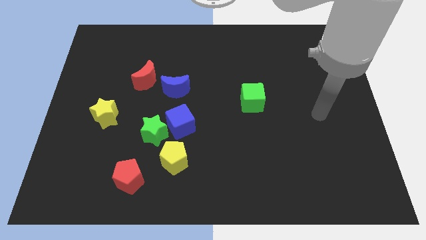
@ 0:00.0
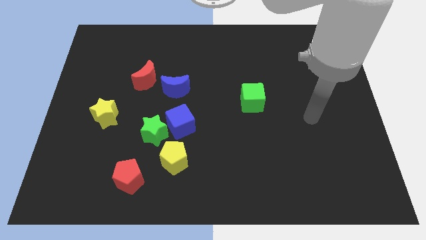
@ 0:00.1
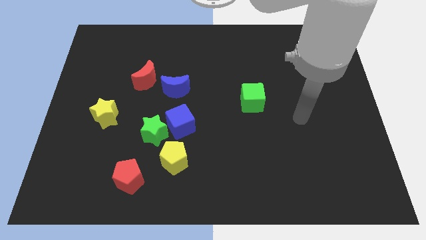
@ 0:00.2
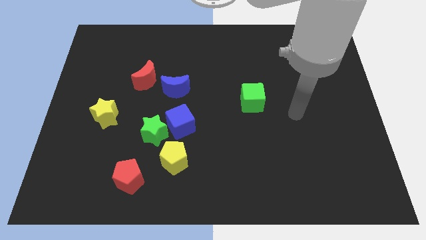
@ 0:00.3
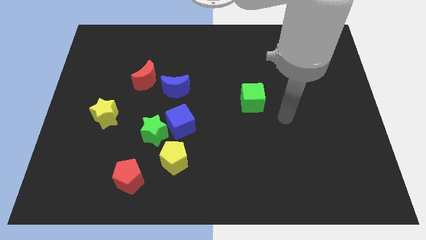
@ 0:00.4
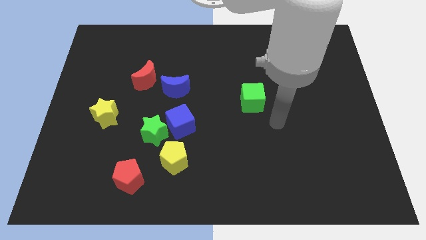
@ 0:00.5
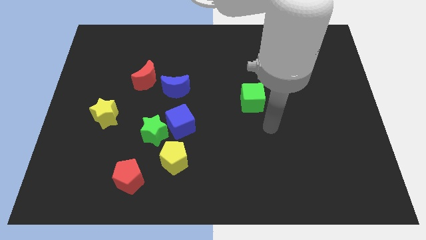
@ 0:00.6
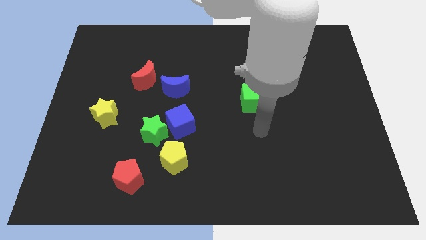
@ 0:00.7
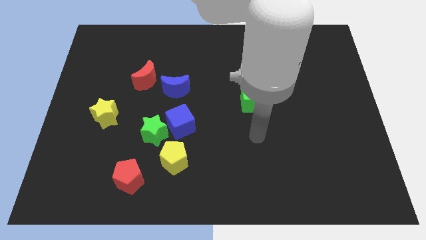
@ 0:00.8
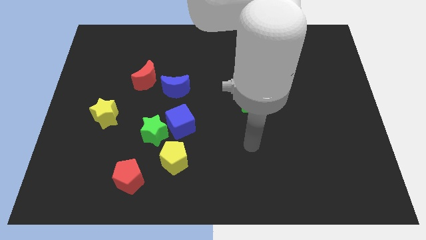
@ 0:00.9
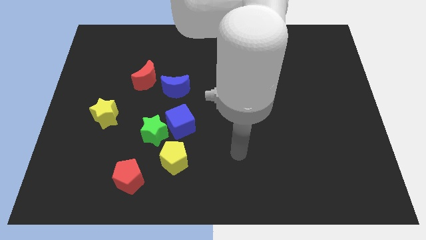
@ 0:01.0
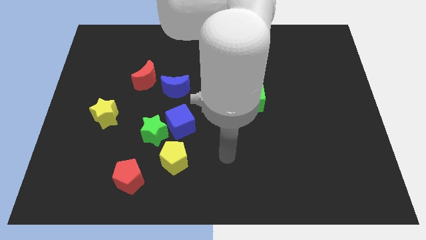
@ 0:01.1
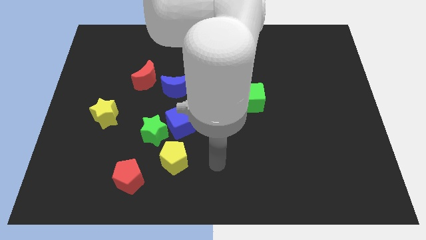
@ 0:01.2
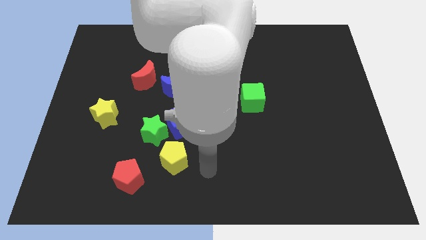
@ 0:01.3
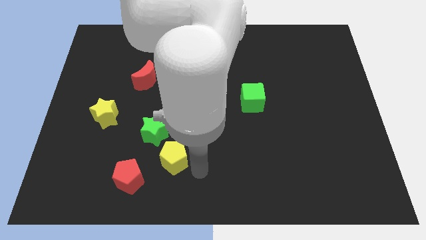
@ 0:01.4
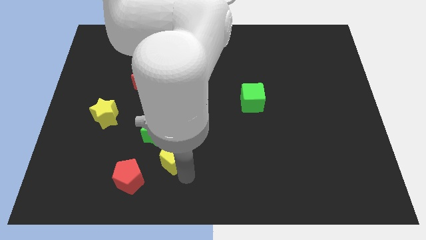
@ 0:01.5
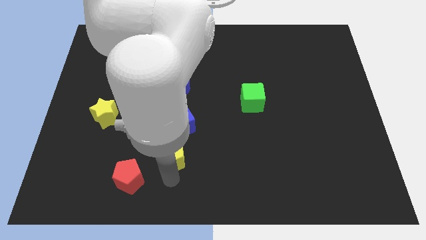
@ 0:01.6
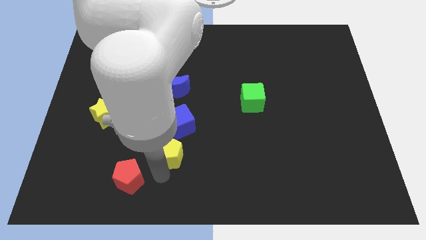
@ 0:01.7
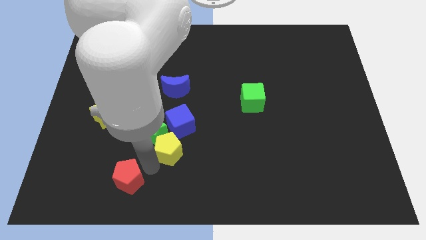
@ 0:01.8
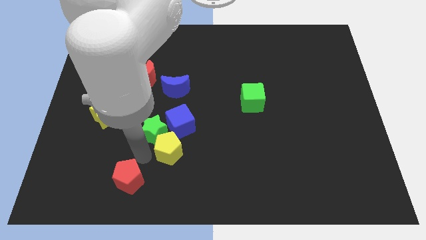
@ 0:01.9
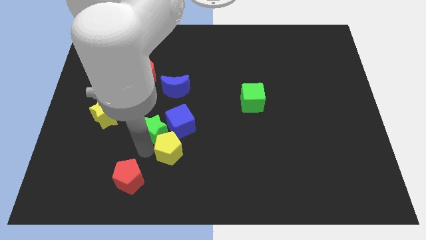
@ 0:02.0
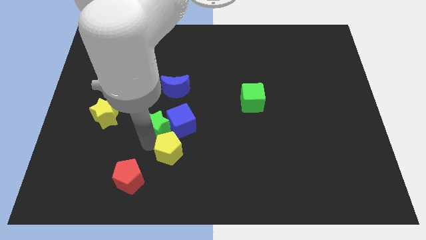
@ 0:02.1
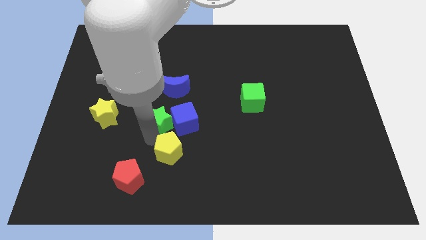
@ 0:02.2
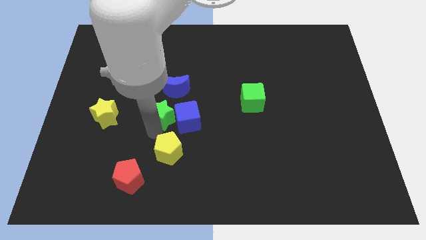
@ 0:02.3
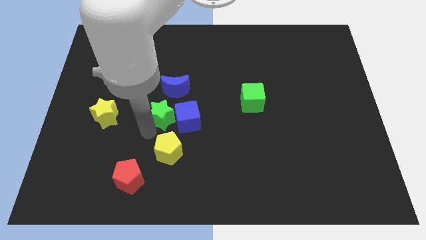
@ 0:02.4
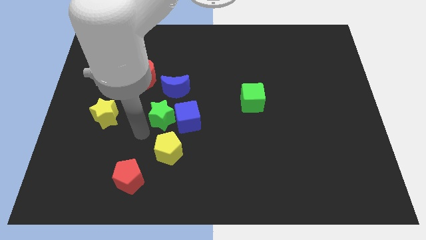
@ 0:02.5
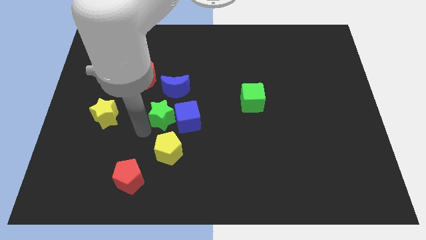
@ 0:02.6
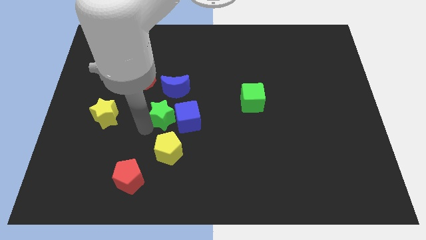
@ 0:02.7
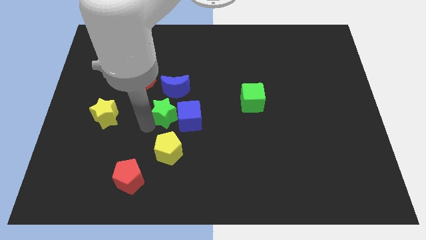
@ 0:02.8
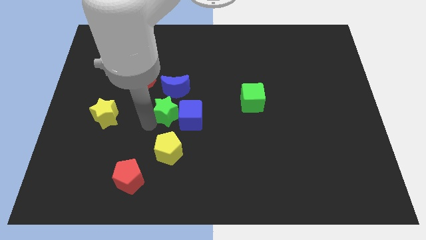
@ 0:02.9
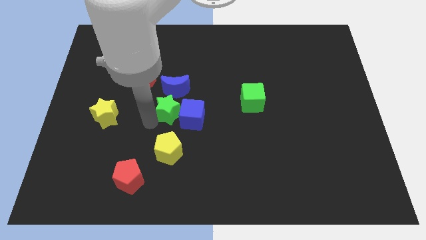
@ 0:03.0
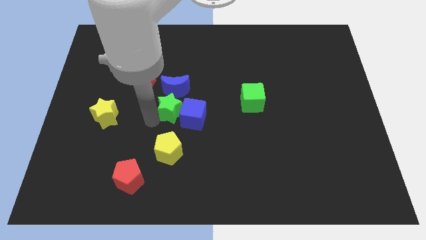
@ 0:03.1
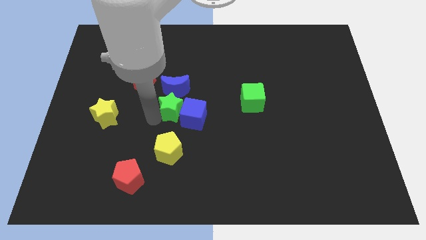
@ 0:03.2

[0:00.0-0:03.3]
push the green star diagonally upwards and right somewhat

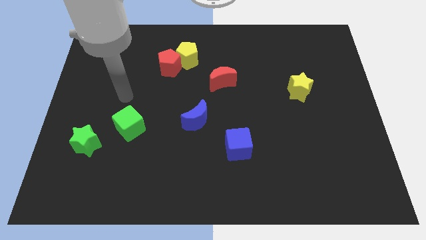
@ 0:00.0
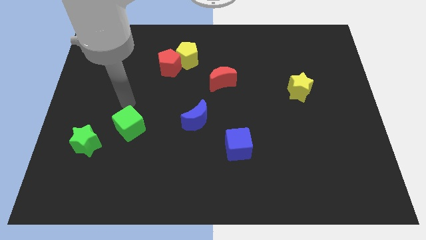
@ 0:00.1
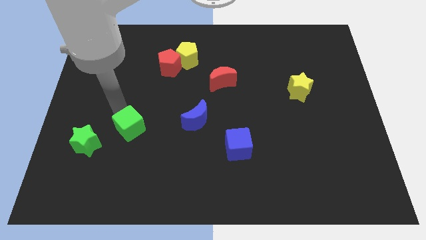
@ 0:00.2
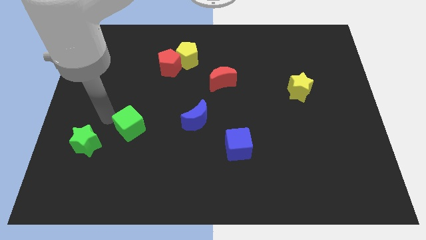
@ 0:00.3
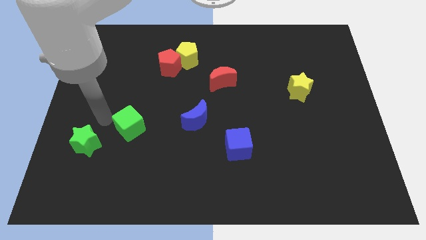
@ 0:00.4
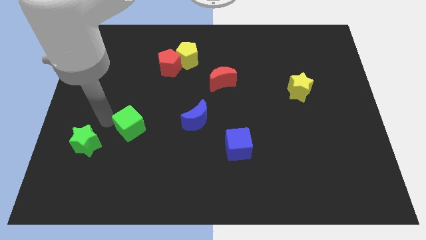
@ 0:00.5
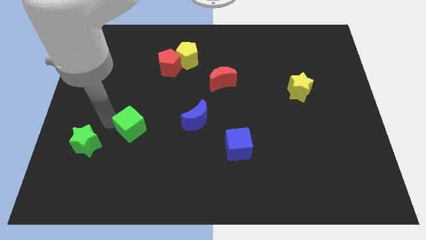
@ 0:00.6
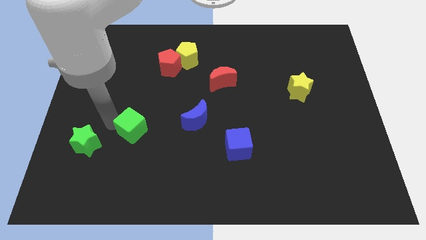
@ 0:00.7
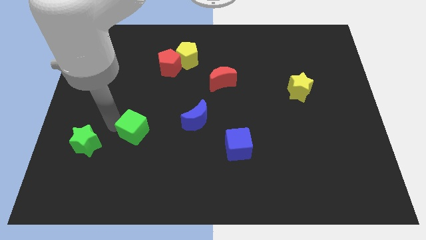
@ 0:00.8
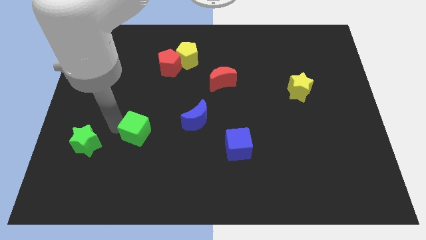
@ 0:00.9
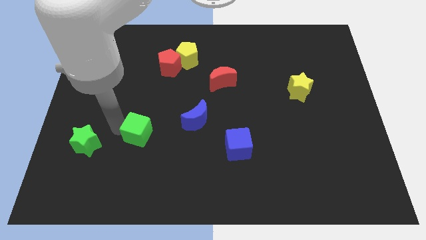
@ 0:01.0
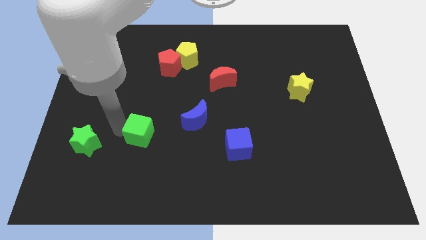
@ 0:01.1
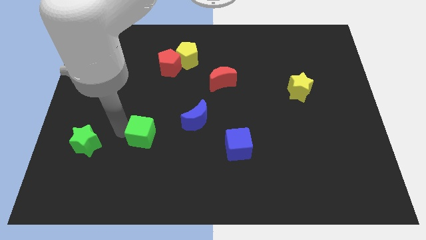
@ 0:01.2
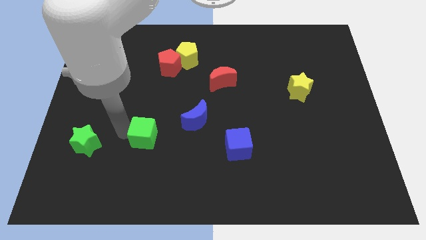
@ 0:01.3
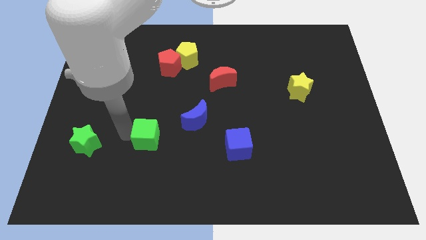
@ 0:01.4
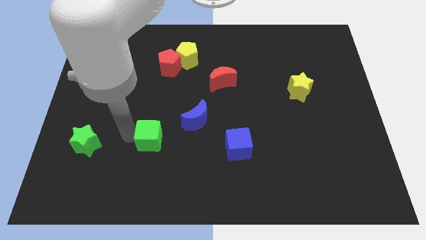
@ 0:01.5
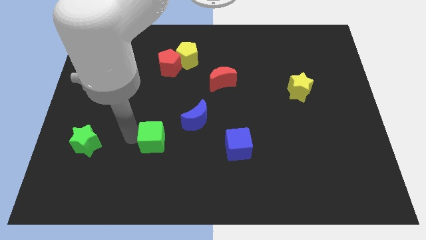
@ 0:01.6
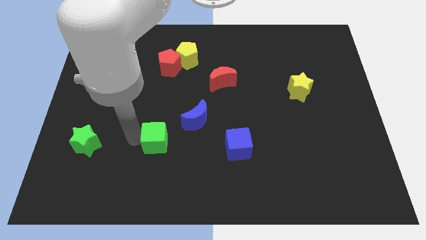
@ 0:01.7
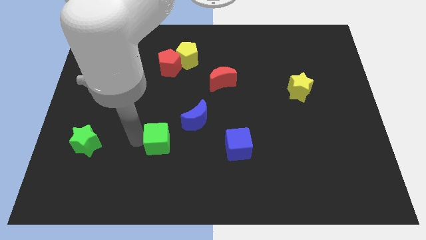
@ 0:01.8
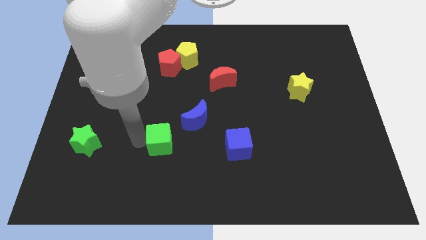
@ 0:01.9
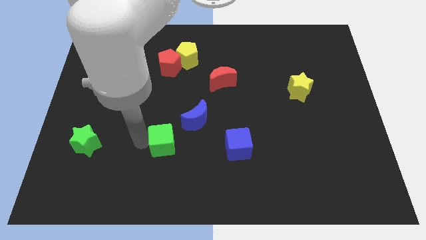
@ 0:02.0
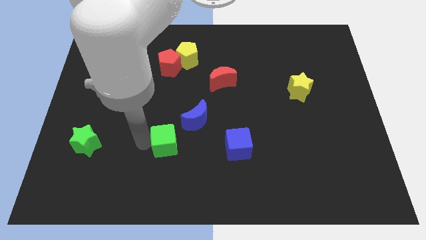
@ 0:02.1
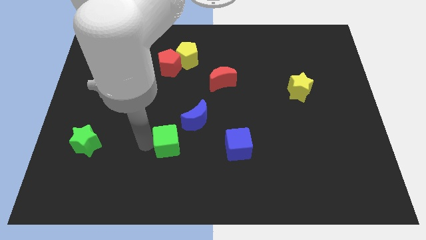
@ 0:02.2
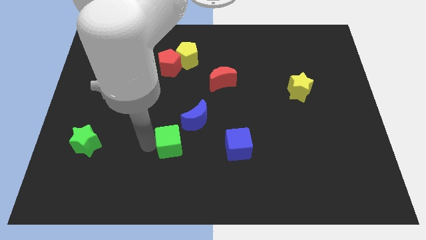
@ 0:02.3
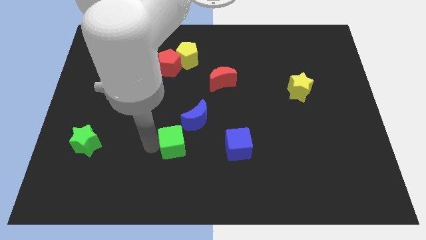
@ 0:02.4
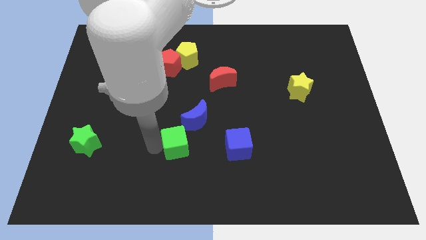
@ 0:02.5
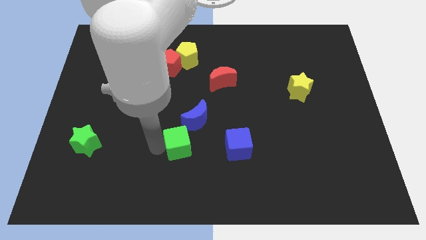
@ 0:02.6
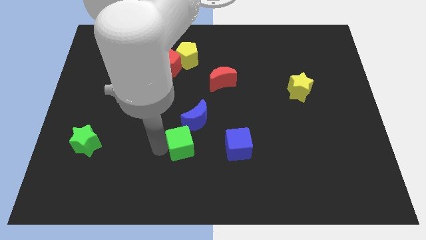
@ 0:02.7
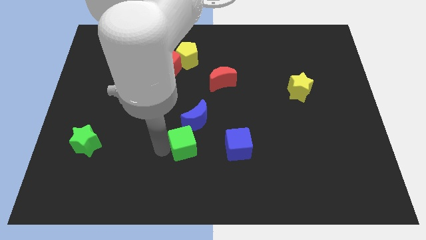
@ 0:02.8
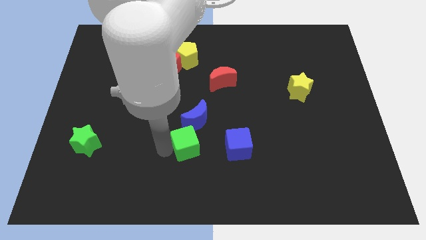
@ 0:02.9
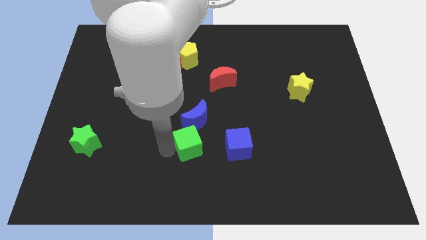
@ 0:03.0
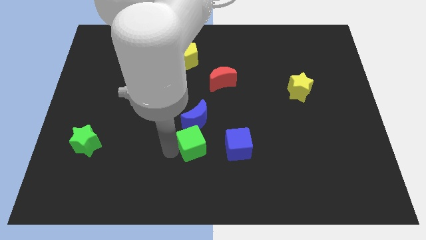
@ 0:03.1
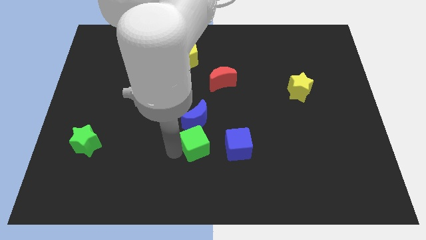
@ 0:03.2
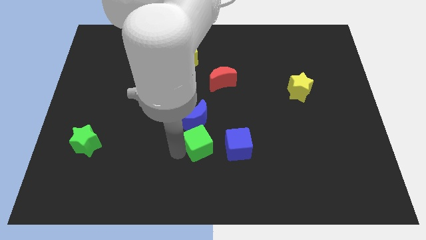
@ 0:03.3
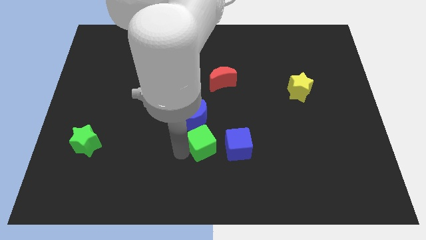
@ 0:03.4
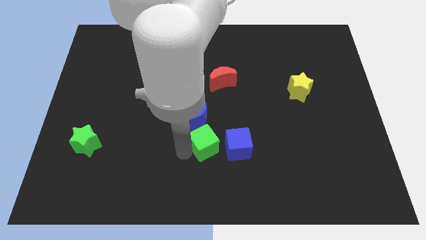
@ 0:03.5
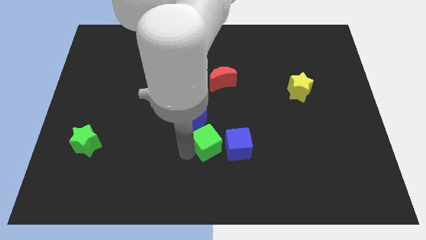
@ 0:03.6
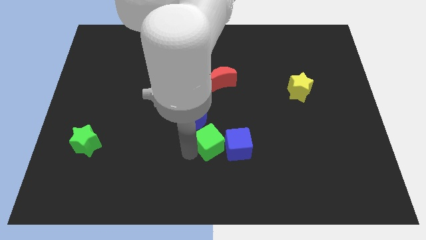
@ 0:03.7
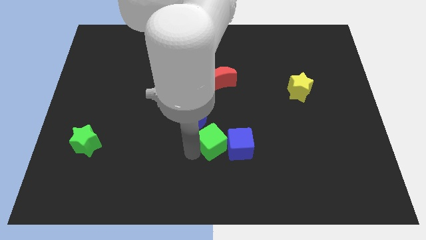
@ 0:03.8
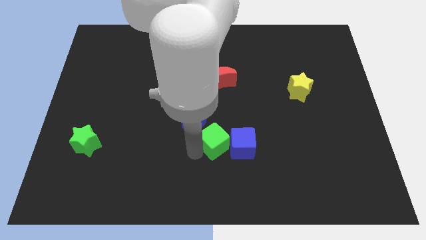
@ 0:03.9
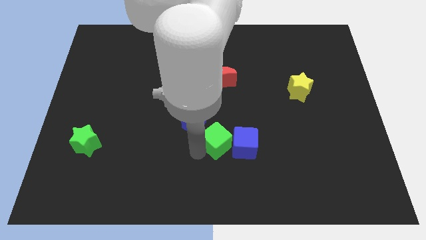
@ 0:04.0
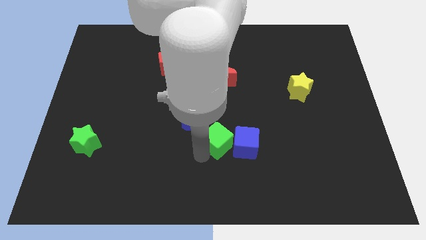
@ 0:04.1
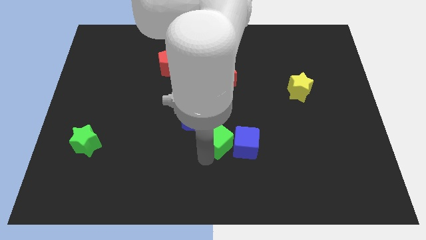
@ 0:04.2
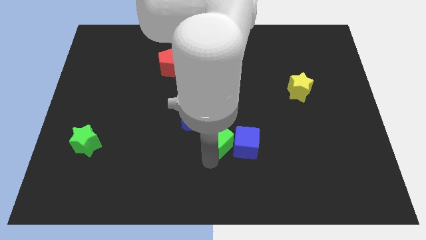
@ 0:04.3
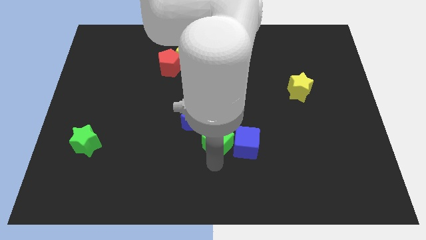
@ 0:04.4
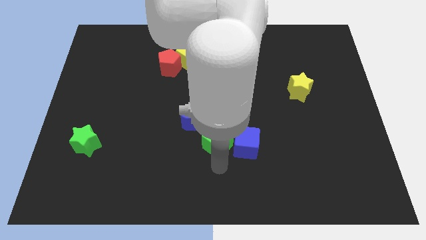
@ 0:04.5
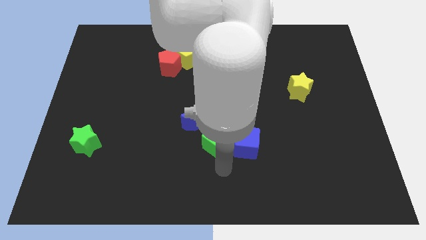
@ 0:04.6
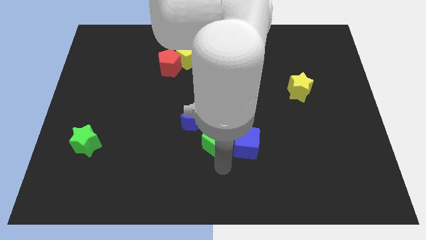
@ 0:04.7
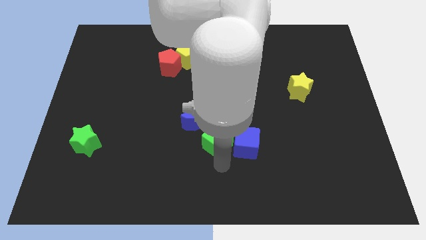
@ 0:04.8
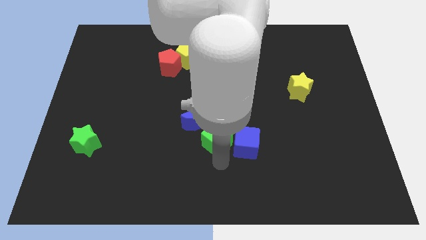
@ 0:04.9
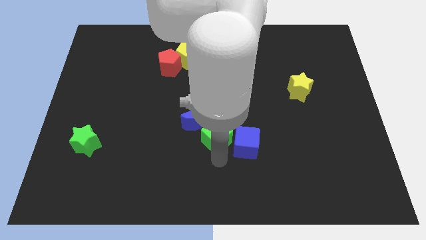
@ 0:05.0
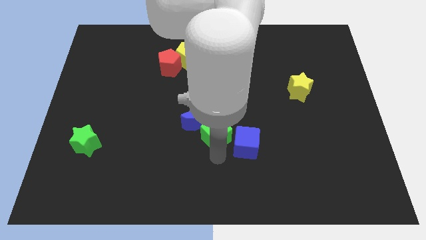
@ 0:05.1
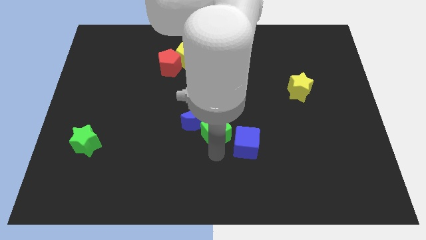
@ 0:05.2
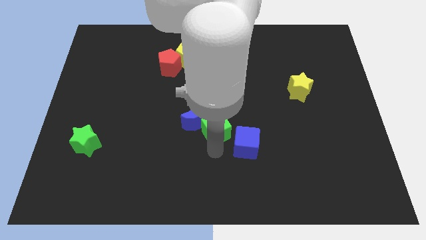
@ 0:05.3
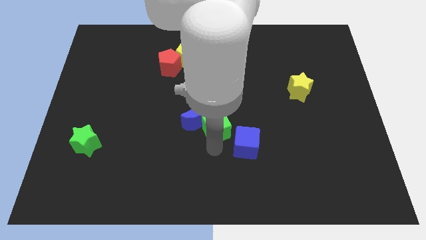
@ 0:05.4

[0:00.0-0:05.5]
push the green cube right
